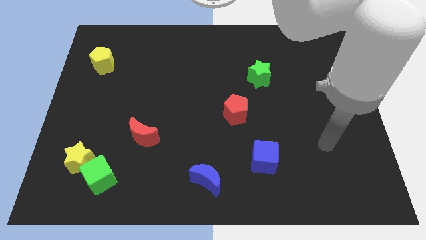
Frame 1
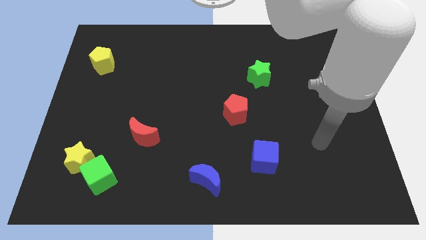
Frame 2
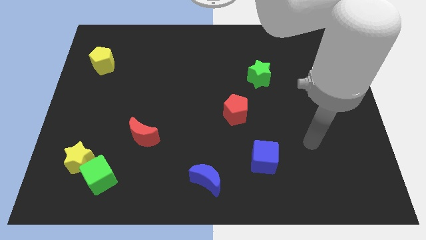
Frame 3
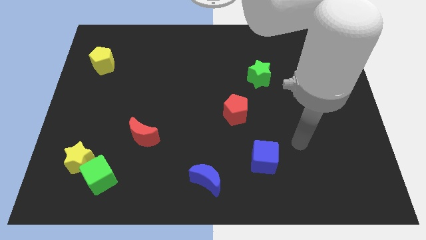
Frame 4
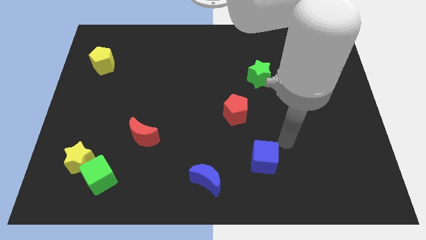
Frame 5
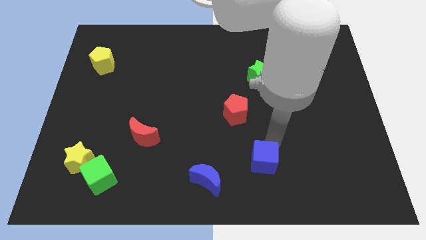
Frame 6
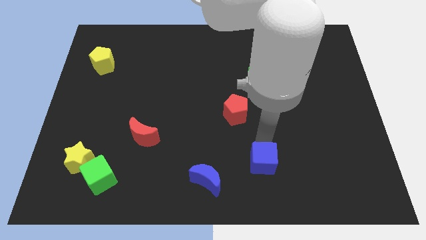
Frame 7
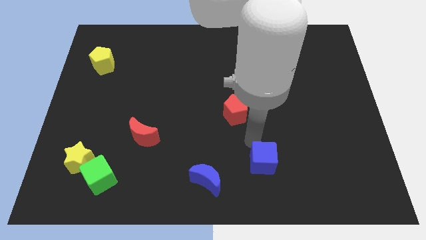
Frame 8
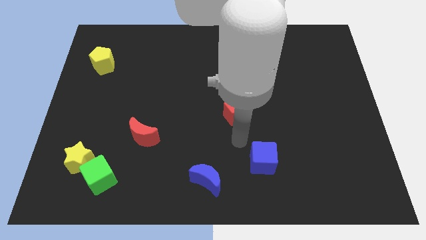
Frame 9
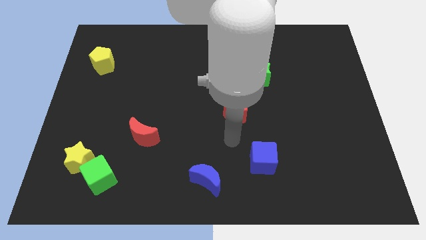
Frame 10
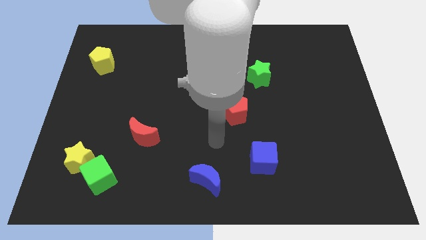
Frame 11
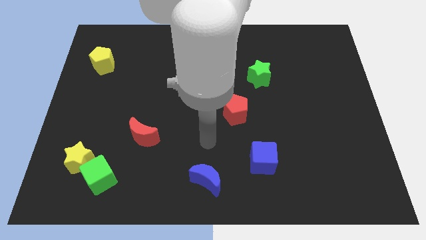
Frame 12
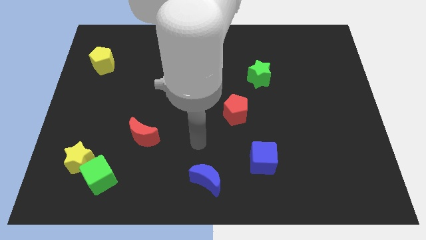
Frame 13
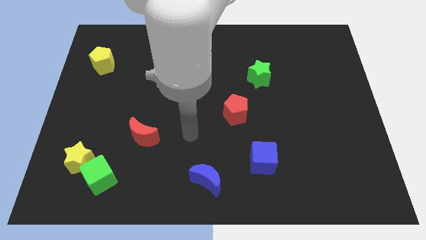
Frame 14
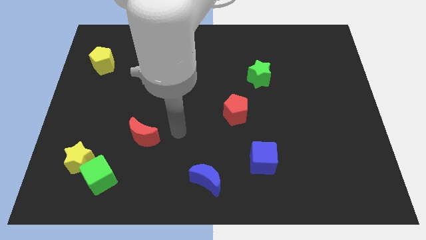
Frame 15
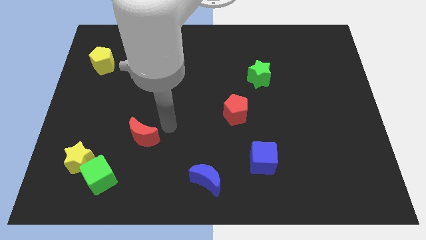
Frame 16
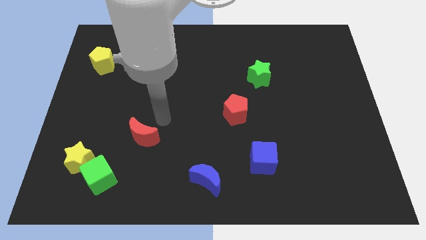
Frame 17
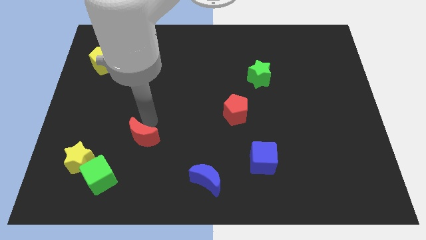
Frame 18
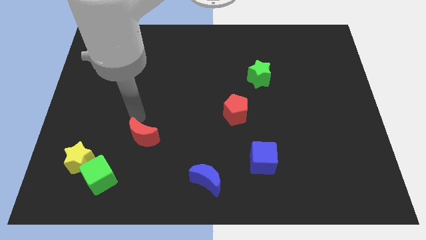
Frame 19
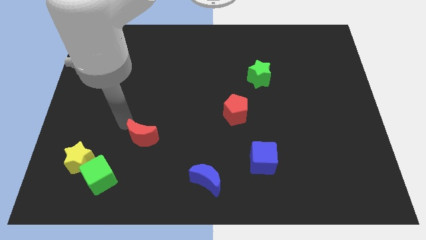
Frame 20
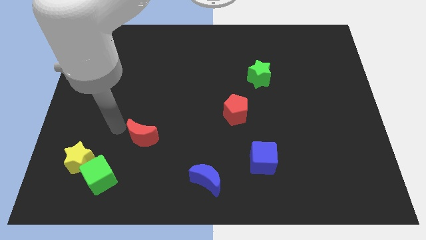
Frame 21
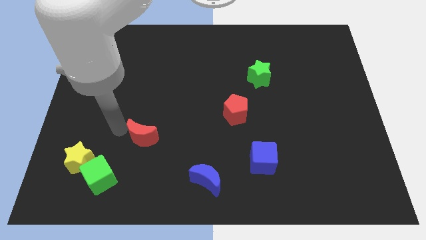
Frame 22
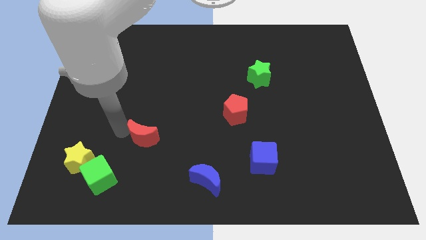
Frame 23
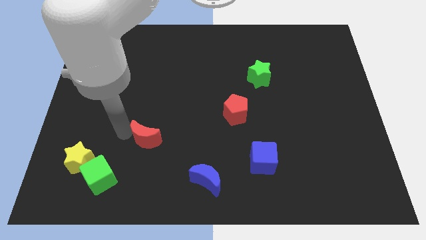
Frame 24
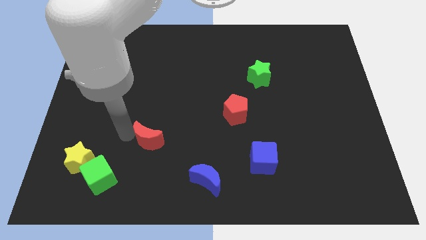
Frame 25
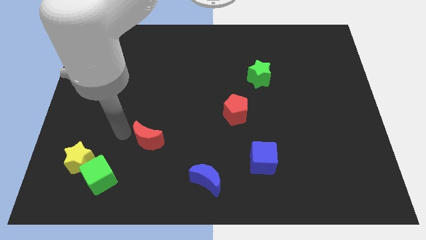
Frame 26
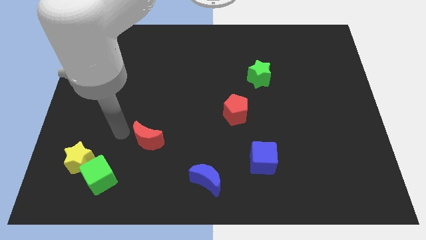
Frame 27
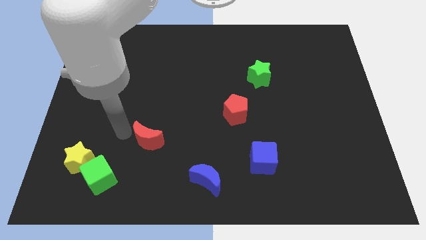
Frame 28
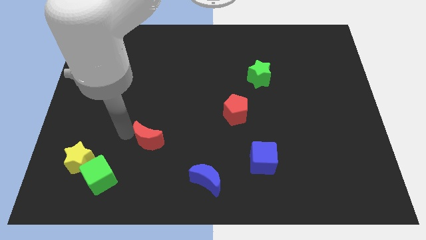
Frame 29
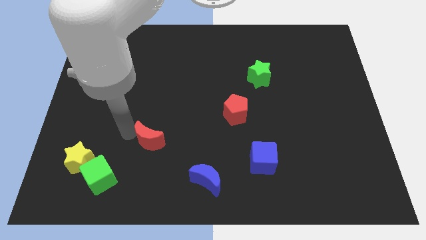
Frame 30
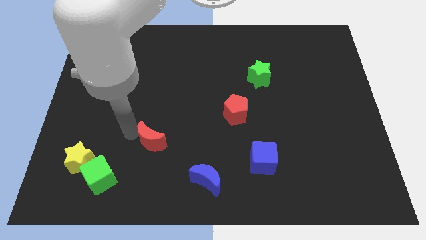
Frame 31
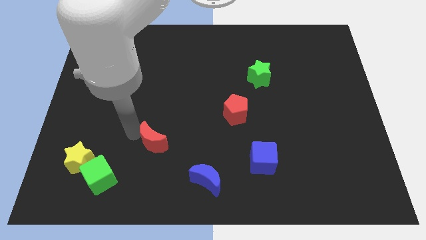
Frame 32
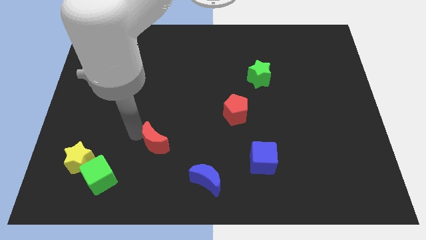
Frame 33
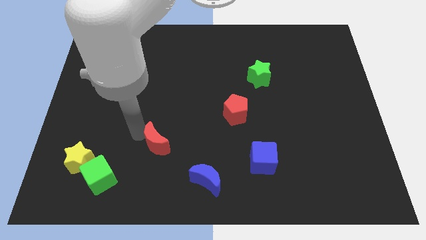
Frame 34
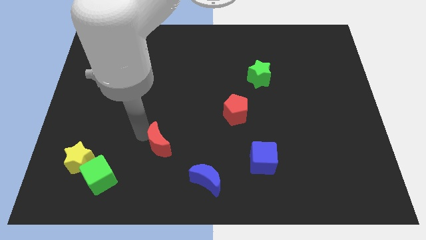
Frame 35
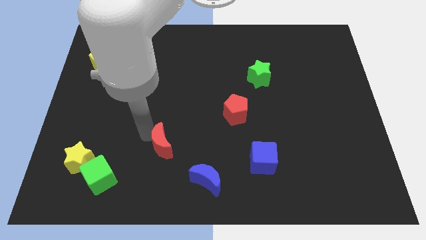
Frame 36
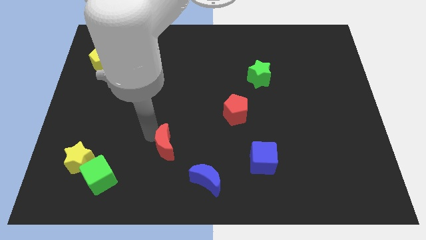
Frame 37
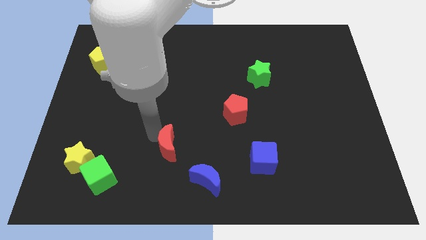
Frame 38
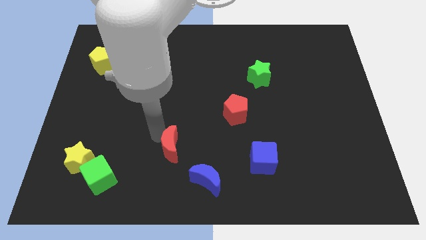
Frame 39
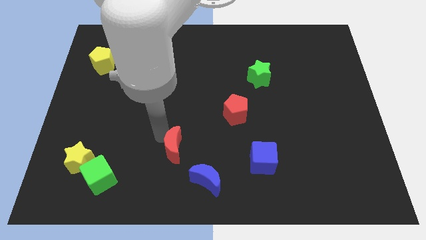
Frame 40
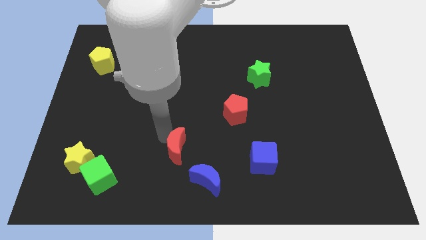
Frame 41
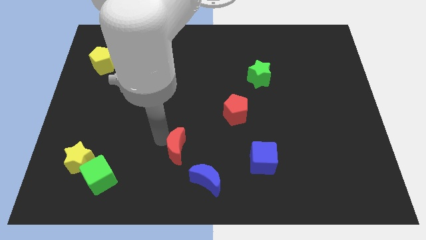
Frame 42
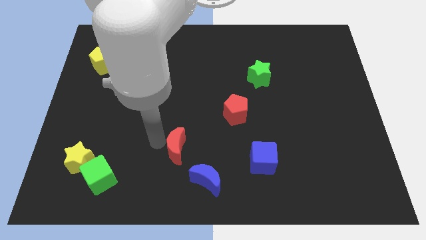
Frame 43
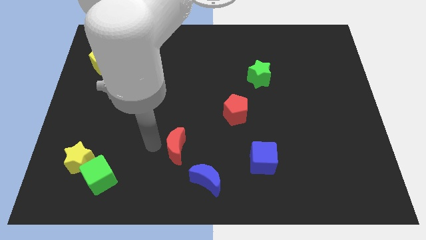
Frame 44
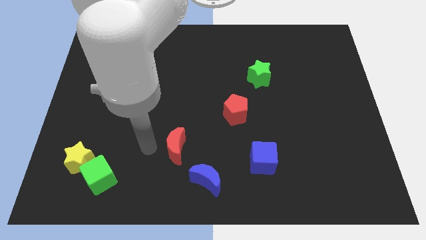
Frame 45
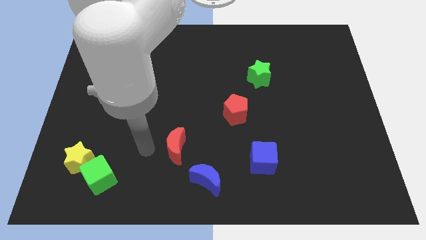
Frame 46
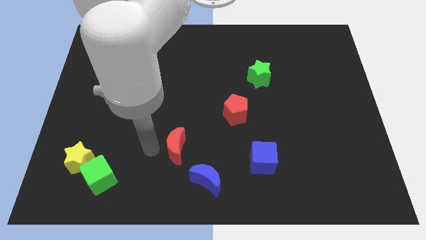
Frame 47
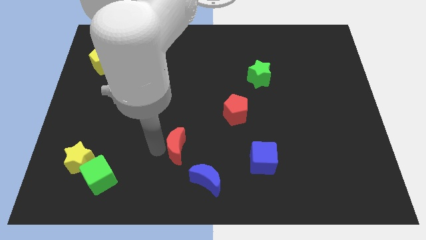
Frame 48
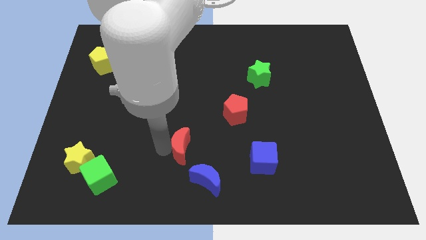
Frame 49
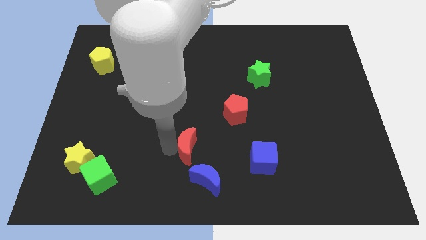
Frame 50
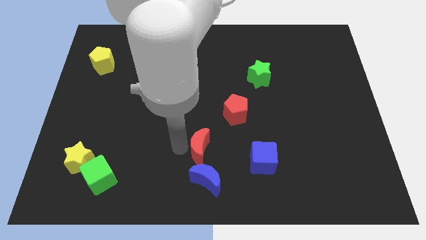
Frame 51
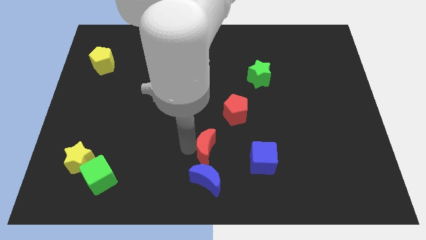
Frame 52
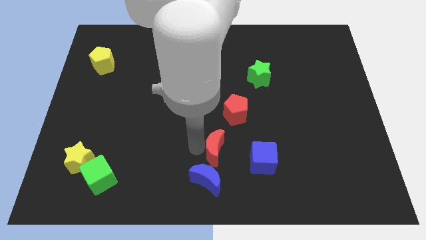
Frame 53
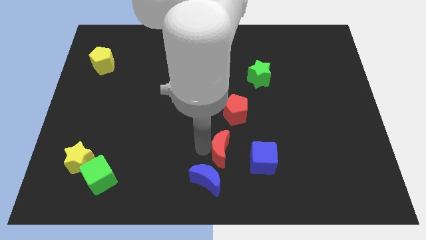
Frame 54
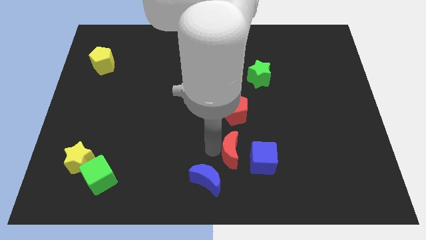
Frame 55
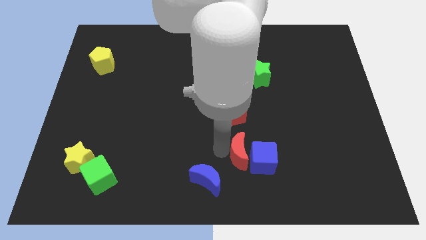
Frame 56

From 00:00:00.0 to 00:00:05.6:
push the red moon towards the blue cube
